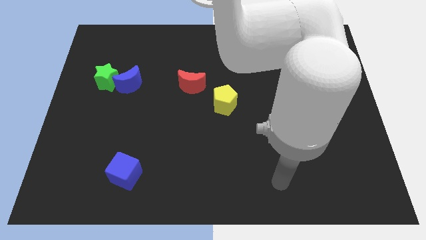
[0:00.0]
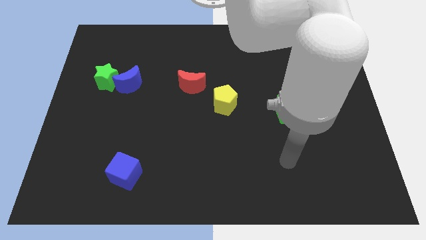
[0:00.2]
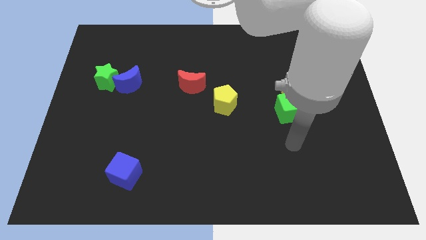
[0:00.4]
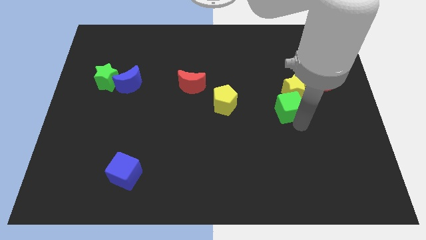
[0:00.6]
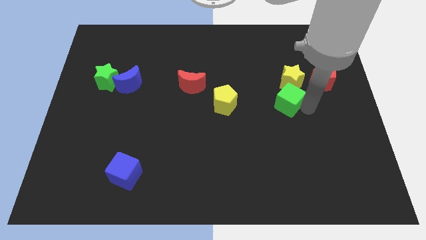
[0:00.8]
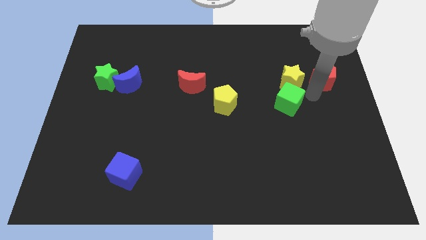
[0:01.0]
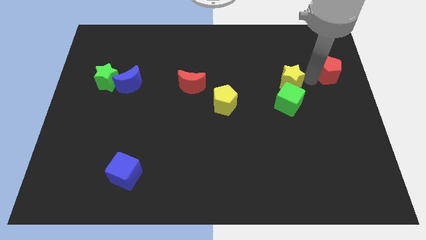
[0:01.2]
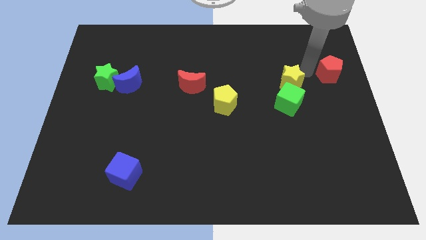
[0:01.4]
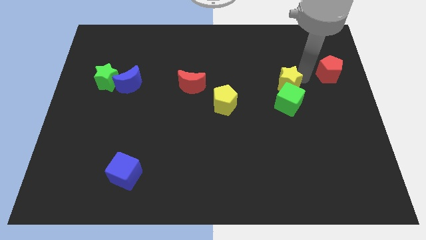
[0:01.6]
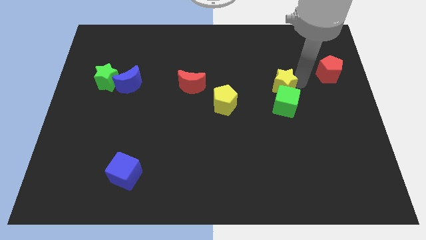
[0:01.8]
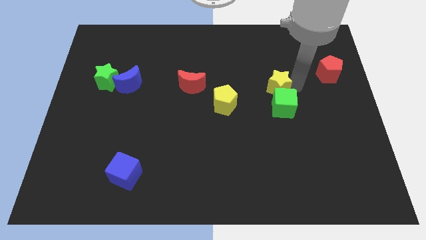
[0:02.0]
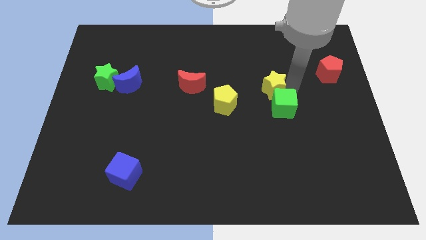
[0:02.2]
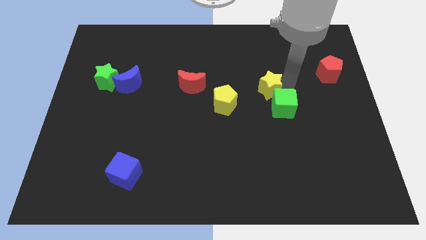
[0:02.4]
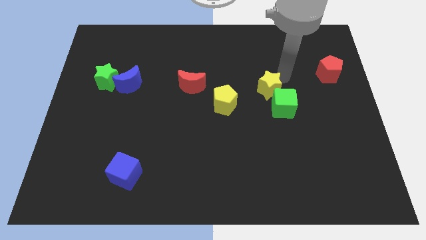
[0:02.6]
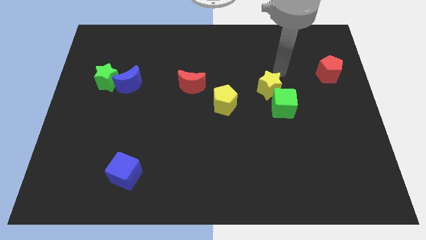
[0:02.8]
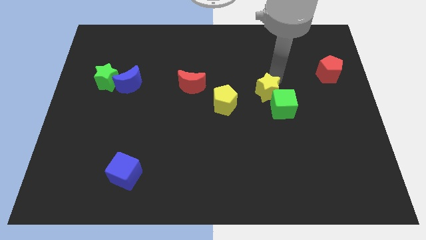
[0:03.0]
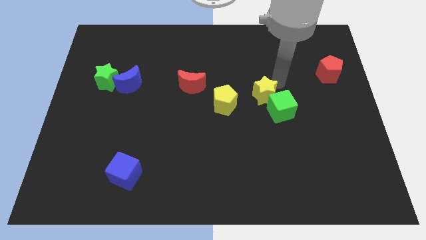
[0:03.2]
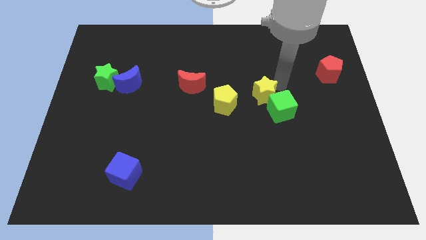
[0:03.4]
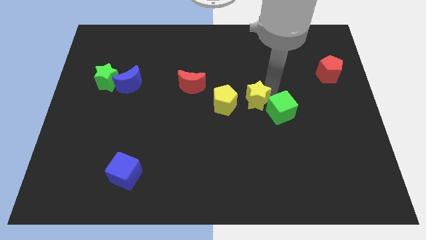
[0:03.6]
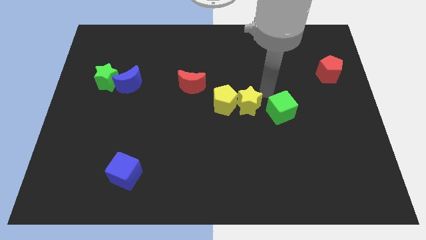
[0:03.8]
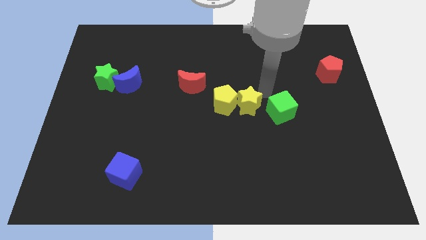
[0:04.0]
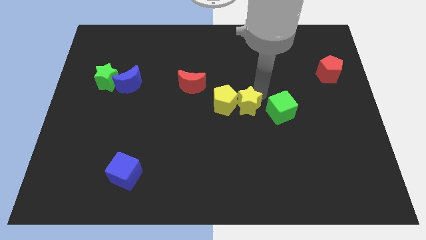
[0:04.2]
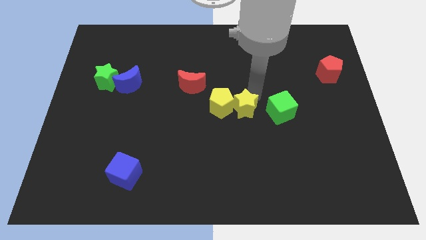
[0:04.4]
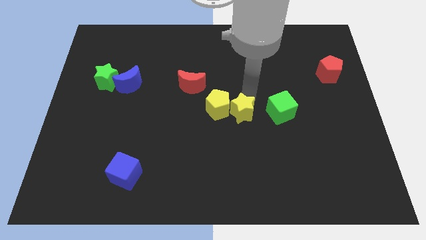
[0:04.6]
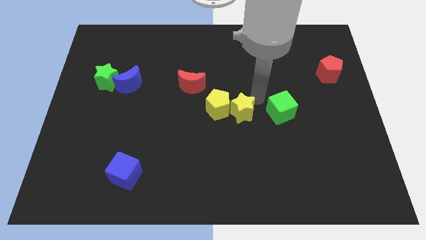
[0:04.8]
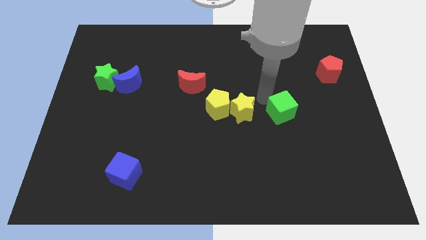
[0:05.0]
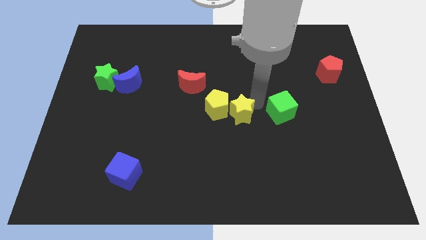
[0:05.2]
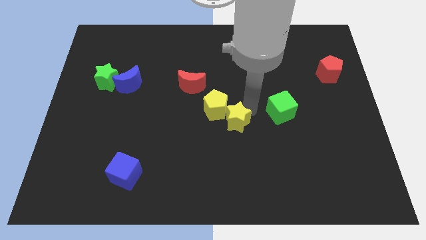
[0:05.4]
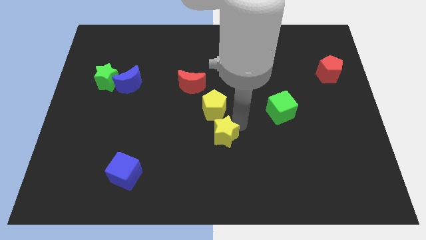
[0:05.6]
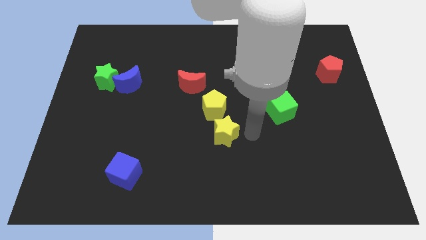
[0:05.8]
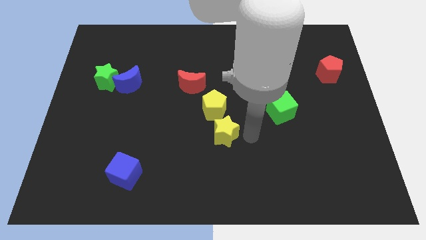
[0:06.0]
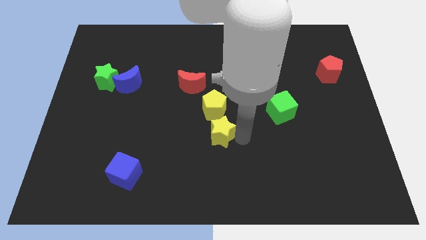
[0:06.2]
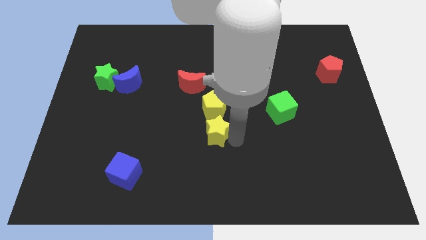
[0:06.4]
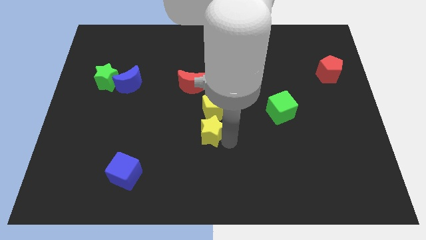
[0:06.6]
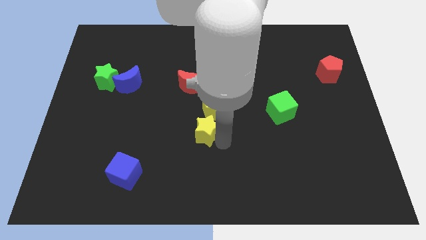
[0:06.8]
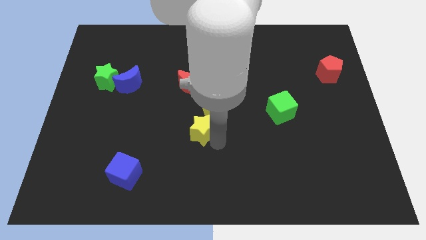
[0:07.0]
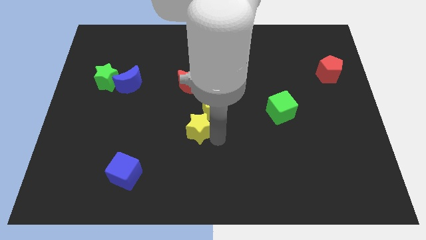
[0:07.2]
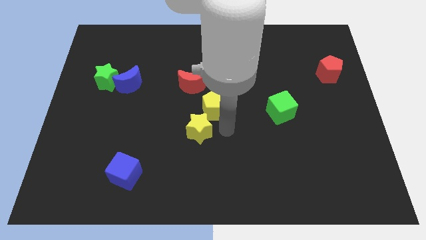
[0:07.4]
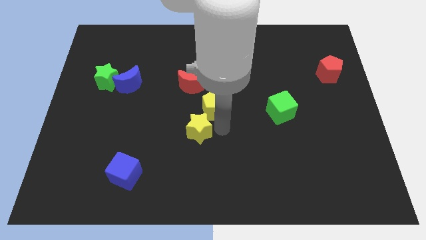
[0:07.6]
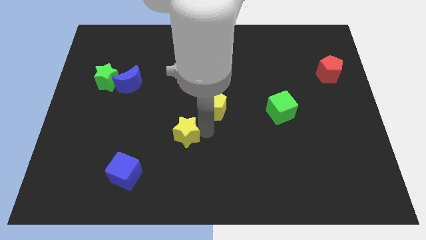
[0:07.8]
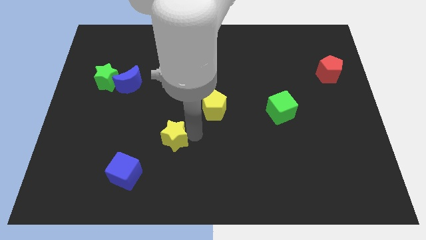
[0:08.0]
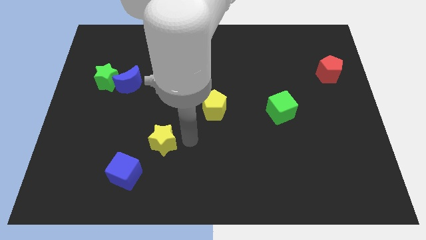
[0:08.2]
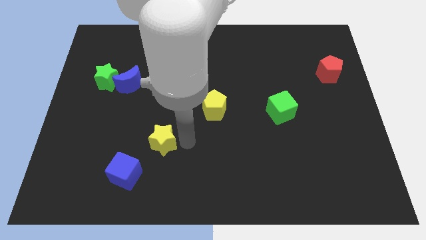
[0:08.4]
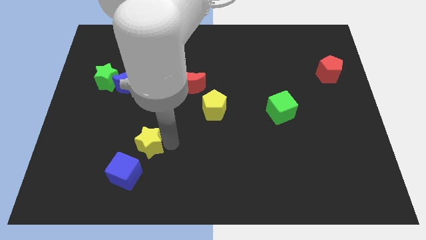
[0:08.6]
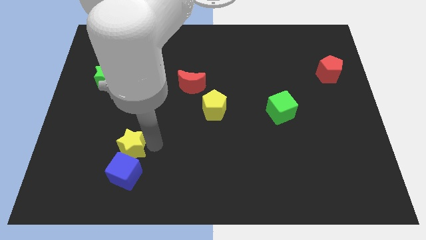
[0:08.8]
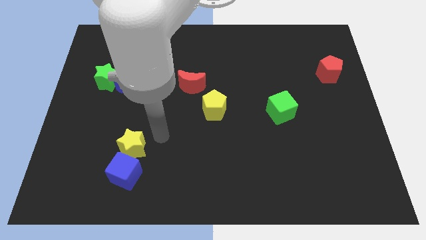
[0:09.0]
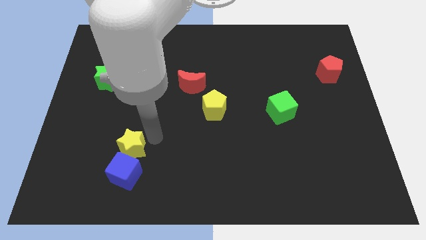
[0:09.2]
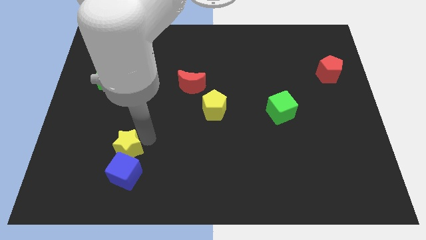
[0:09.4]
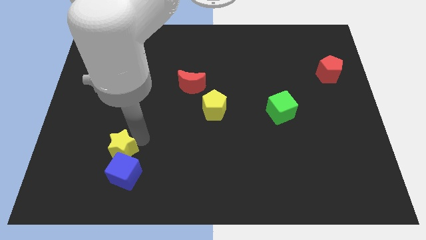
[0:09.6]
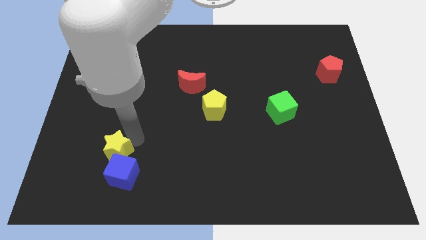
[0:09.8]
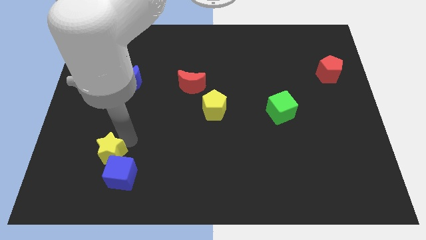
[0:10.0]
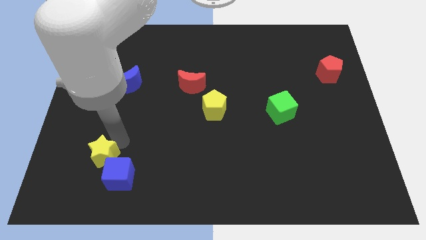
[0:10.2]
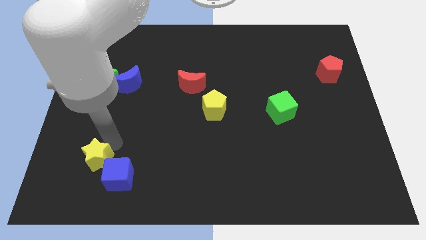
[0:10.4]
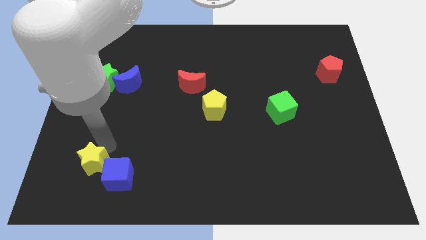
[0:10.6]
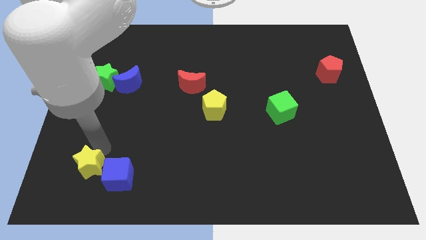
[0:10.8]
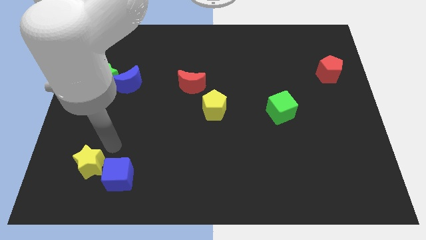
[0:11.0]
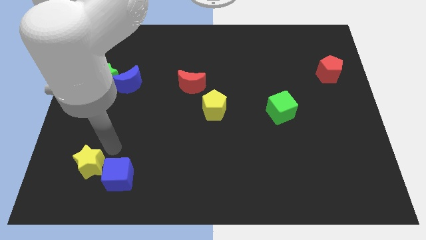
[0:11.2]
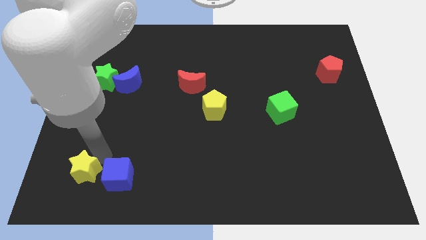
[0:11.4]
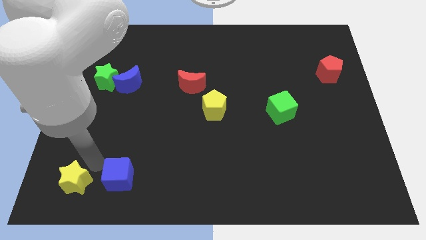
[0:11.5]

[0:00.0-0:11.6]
put the yellow star to the lower left corner
